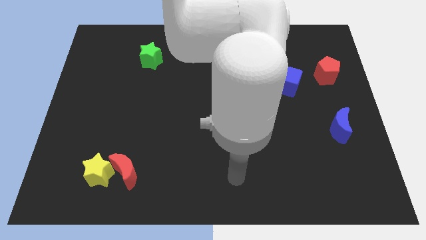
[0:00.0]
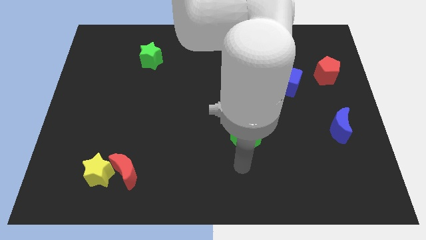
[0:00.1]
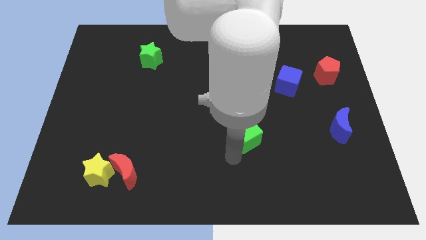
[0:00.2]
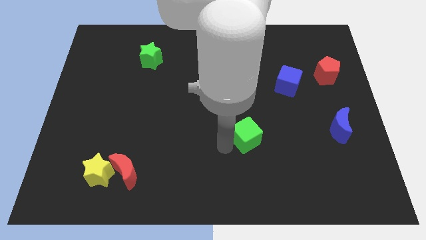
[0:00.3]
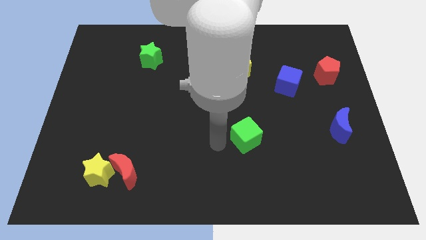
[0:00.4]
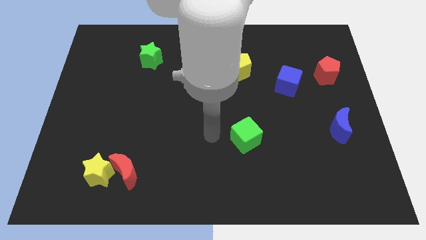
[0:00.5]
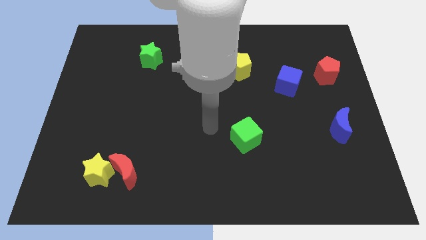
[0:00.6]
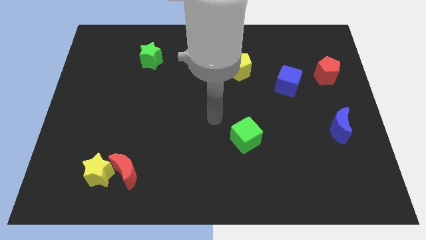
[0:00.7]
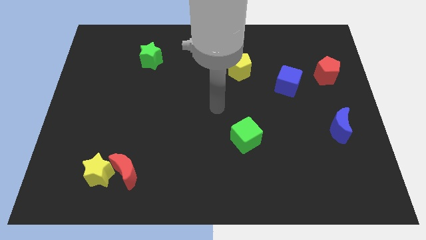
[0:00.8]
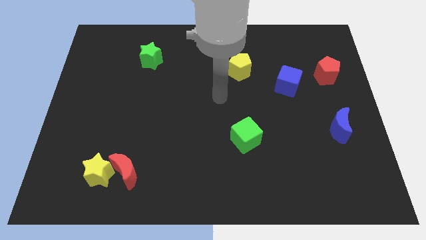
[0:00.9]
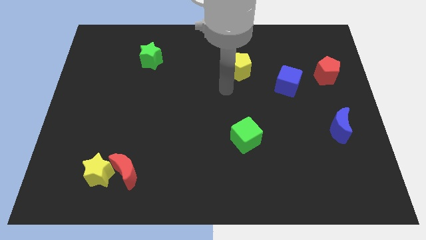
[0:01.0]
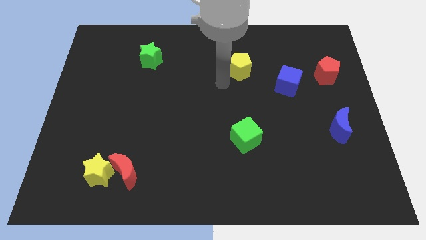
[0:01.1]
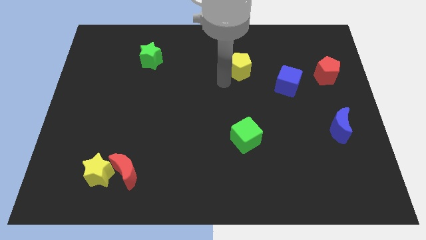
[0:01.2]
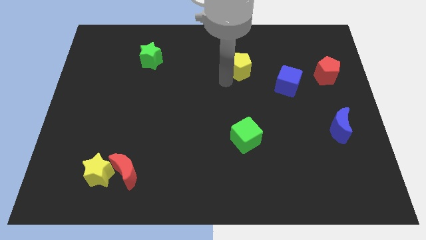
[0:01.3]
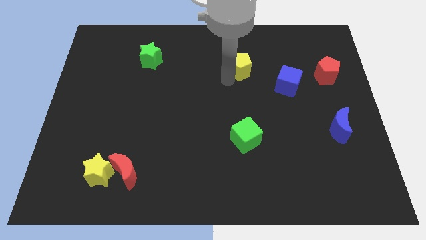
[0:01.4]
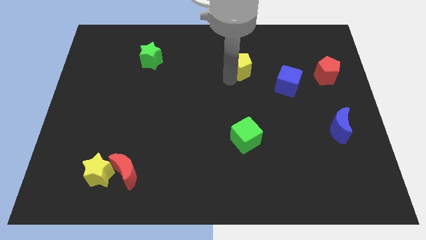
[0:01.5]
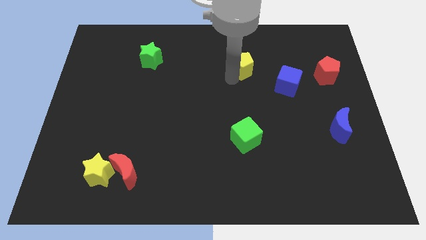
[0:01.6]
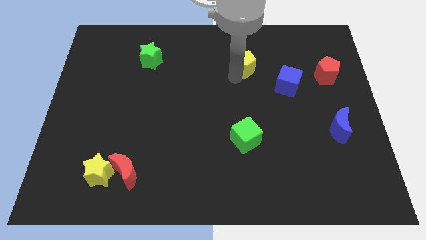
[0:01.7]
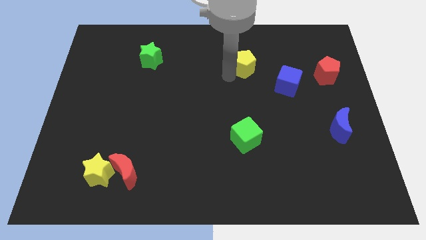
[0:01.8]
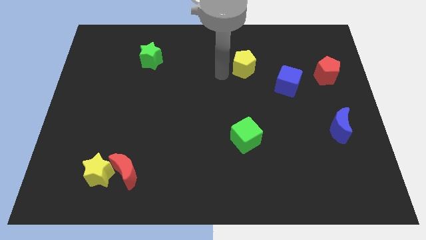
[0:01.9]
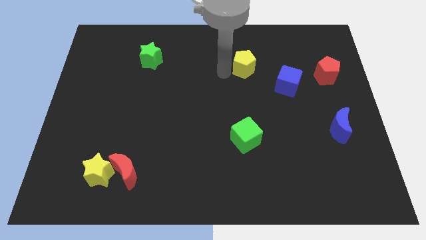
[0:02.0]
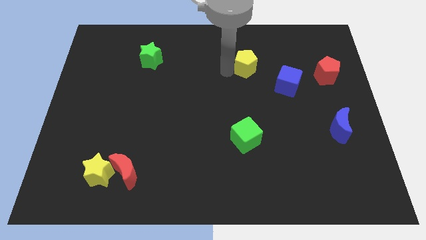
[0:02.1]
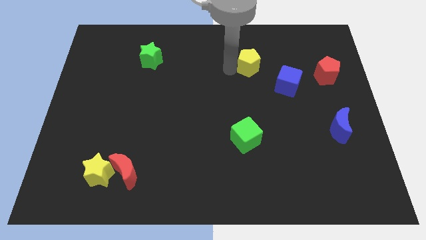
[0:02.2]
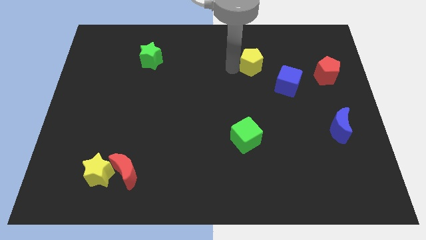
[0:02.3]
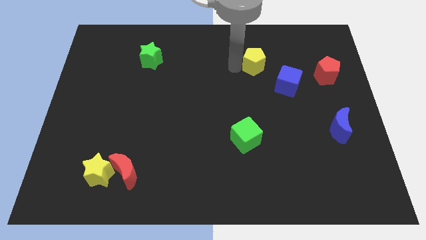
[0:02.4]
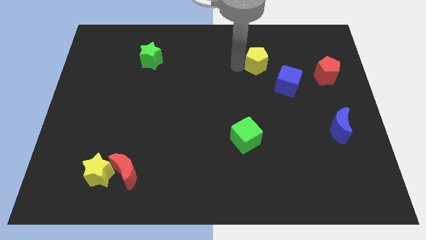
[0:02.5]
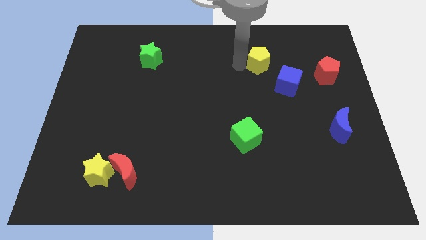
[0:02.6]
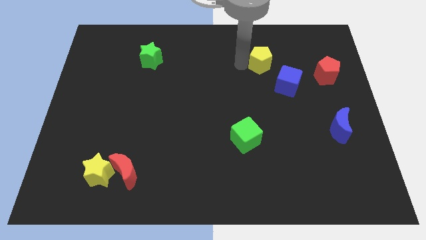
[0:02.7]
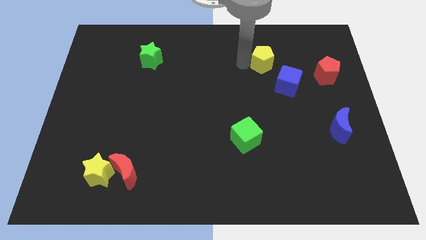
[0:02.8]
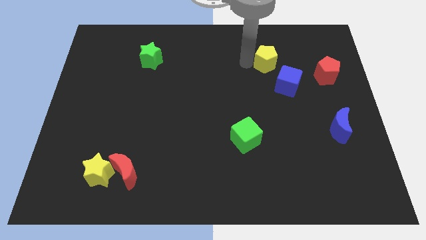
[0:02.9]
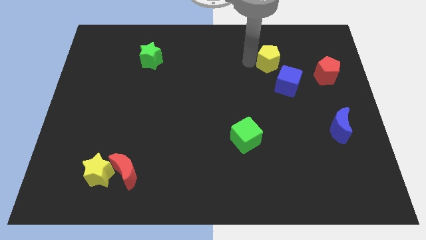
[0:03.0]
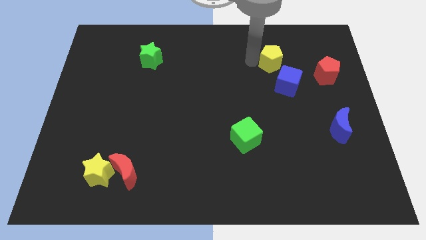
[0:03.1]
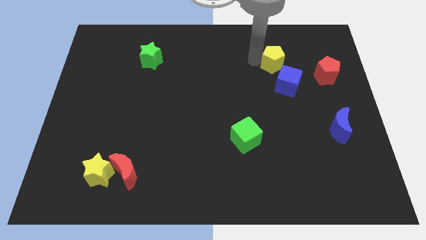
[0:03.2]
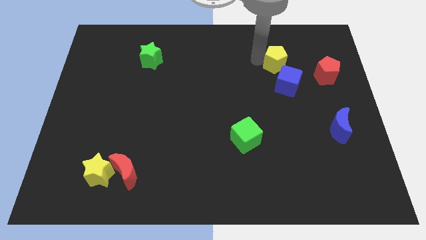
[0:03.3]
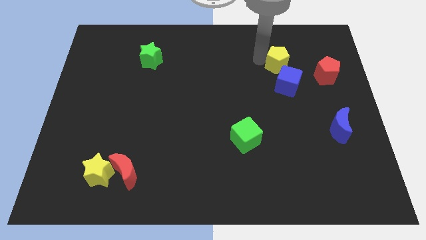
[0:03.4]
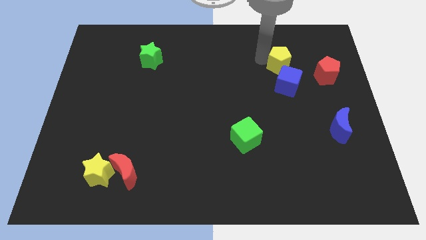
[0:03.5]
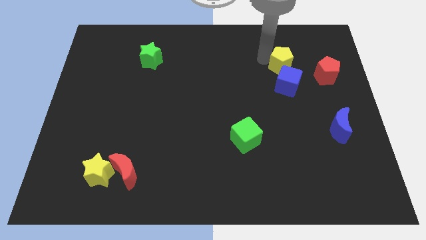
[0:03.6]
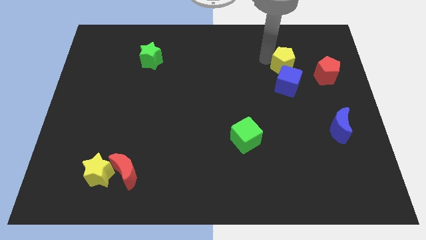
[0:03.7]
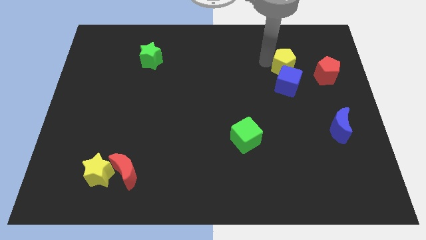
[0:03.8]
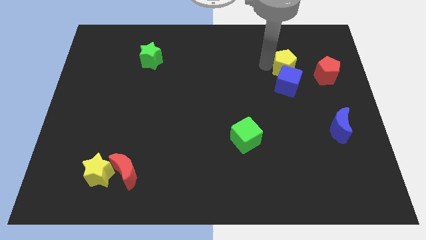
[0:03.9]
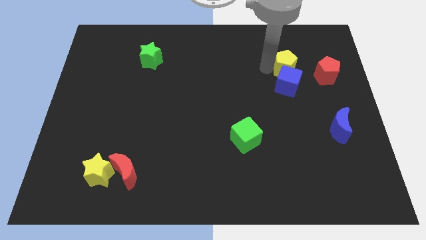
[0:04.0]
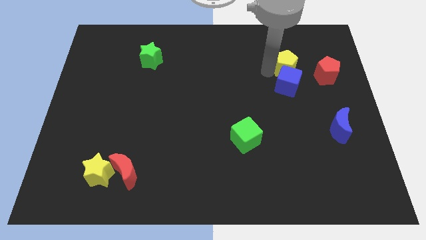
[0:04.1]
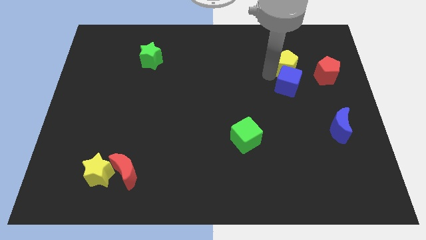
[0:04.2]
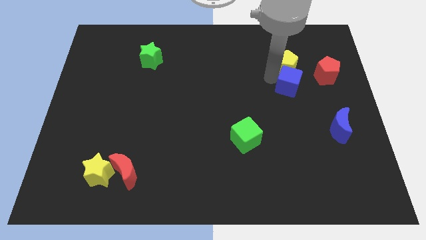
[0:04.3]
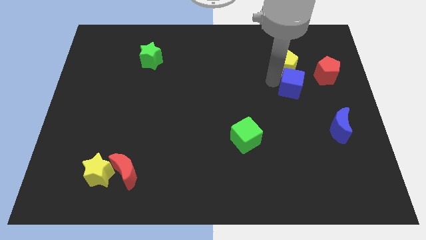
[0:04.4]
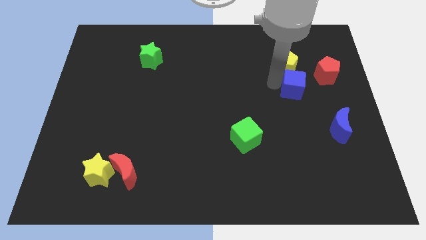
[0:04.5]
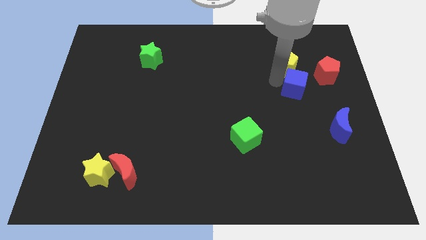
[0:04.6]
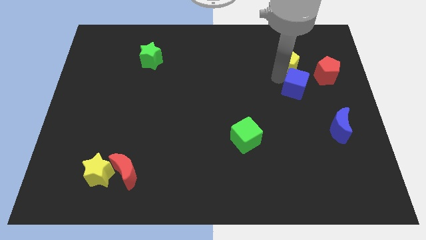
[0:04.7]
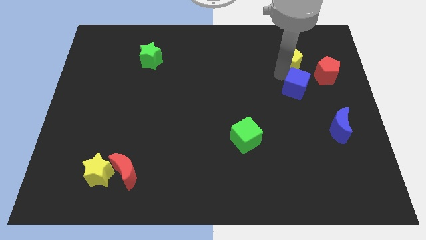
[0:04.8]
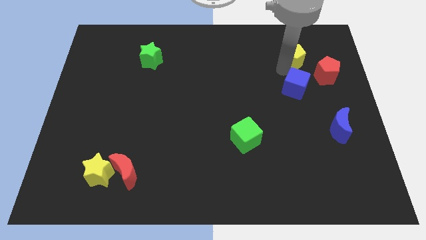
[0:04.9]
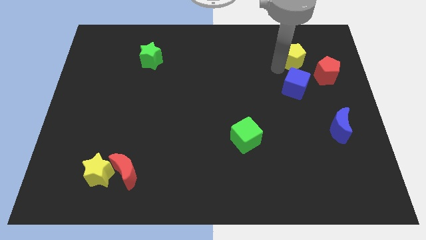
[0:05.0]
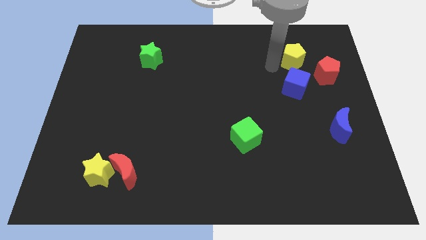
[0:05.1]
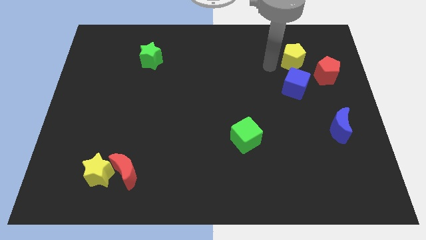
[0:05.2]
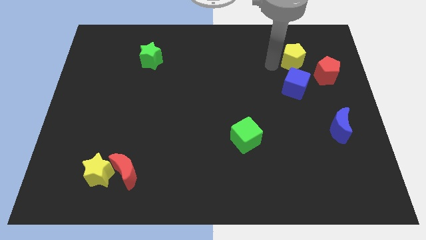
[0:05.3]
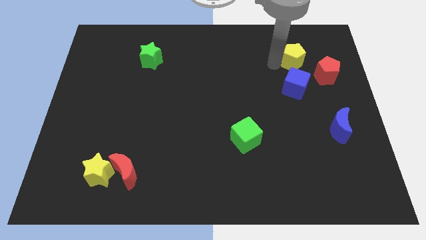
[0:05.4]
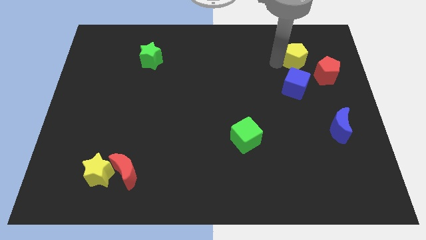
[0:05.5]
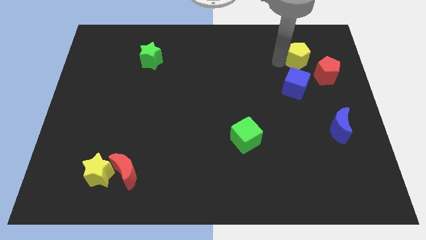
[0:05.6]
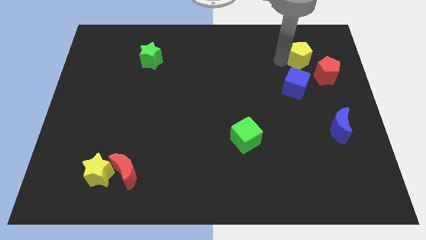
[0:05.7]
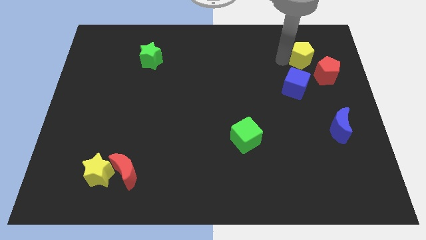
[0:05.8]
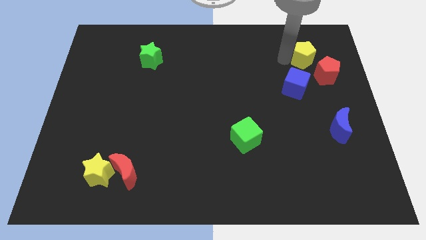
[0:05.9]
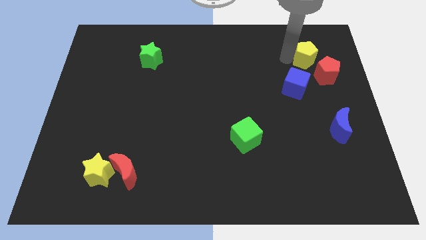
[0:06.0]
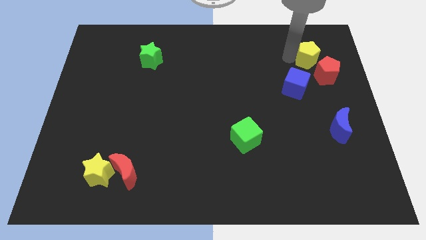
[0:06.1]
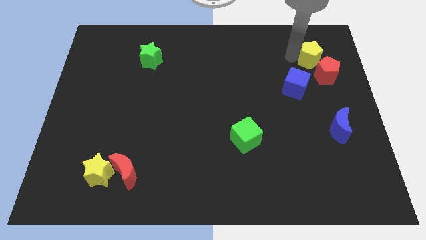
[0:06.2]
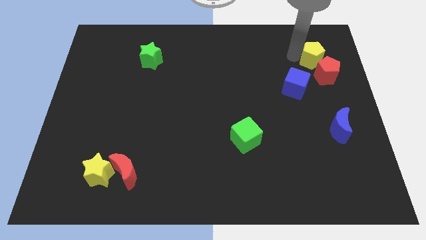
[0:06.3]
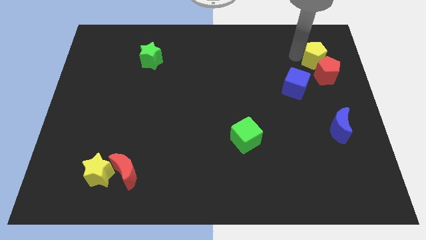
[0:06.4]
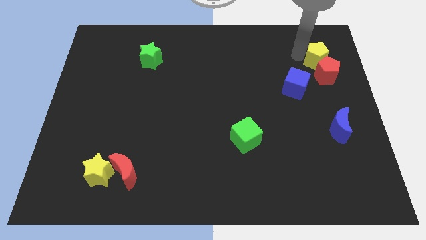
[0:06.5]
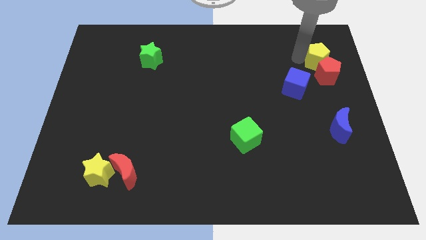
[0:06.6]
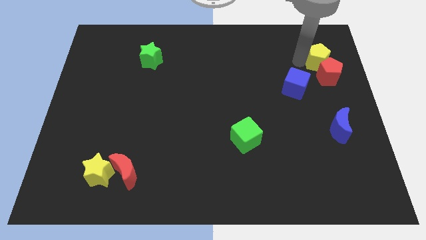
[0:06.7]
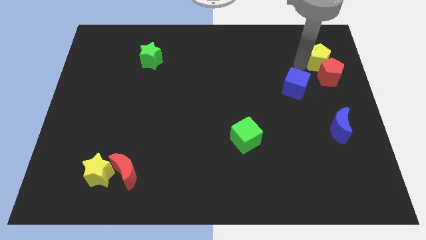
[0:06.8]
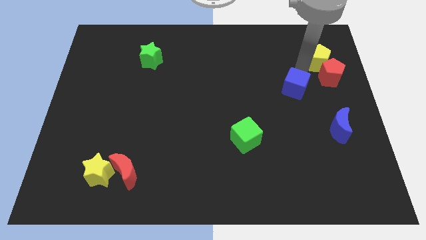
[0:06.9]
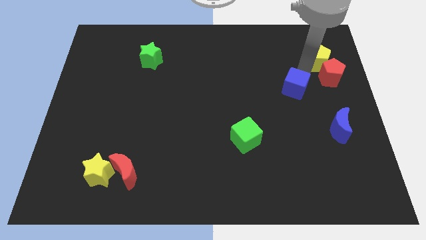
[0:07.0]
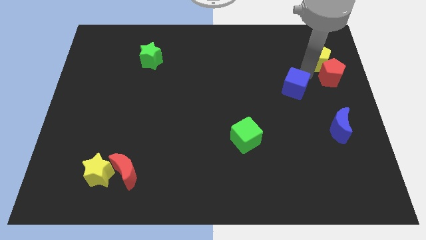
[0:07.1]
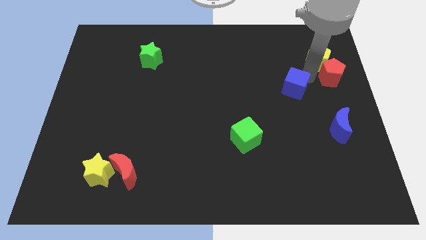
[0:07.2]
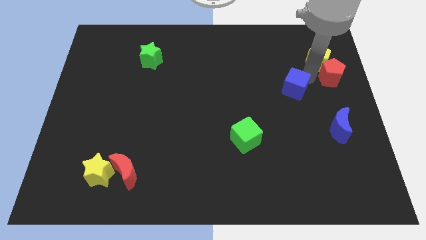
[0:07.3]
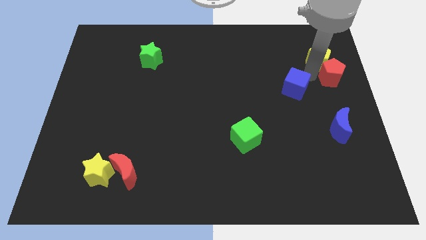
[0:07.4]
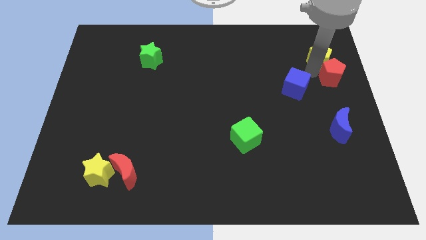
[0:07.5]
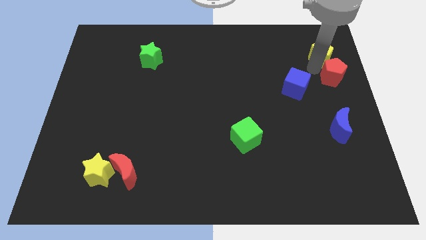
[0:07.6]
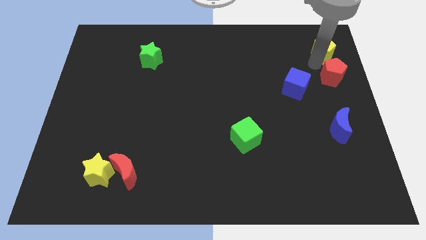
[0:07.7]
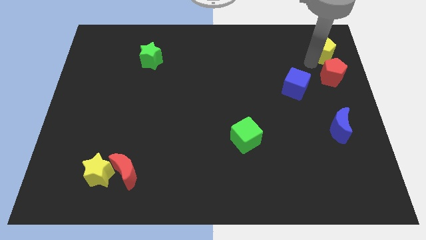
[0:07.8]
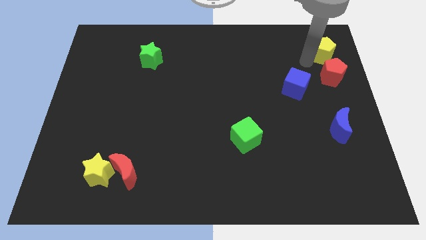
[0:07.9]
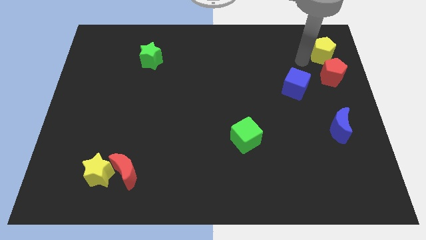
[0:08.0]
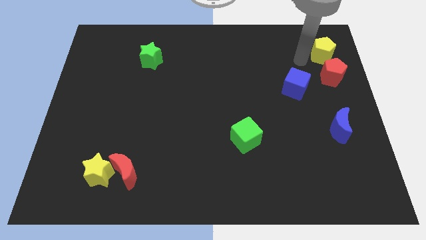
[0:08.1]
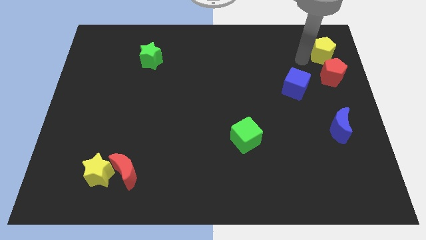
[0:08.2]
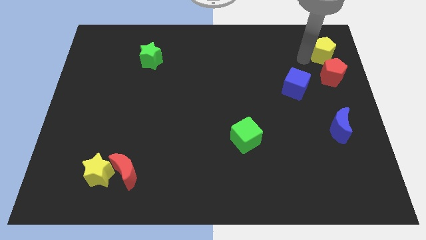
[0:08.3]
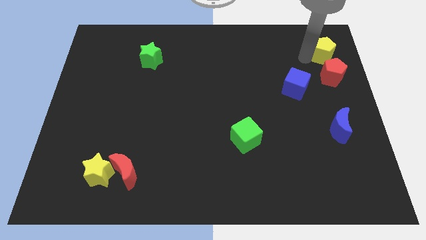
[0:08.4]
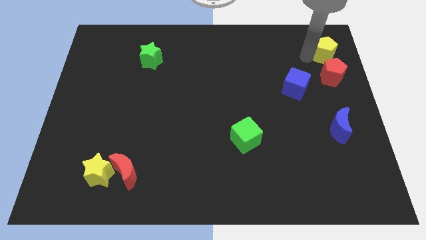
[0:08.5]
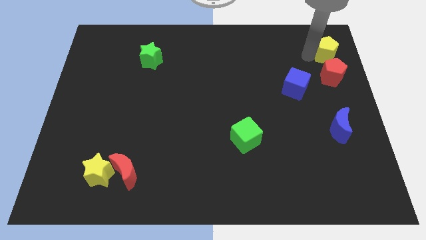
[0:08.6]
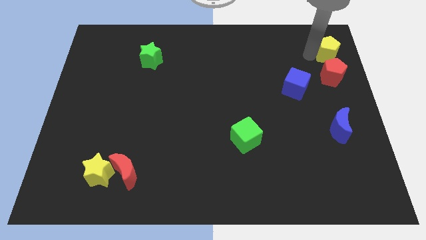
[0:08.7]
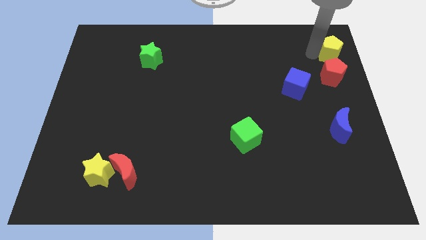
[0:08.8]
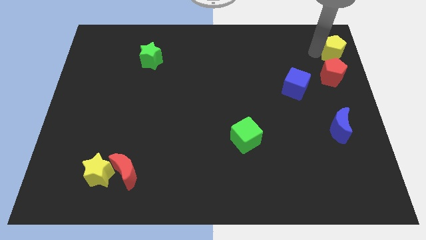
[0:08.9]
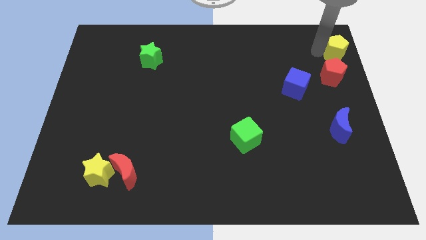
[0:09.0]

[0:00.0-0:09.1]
slide the yellow pentagon to the upper right corner
